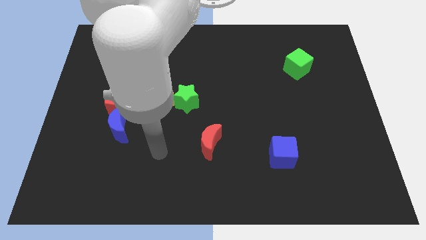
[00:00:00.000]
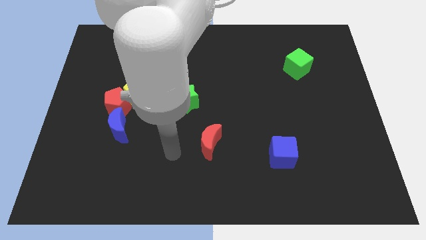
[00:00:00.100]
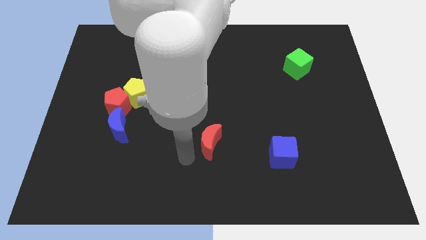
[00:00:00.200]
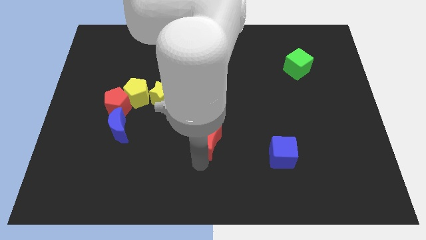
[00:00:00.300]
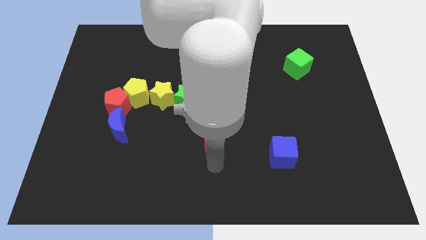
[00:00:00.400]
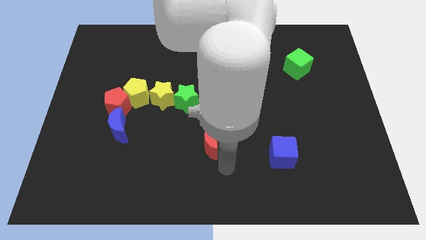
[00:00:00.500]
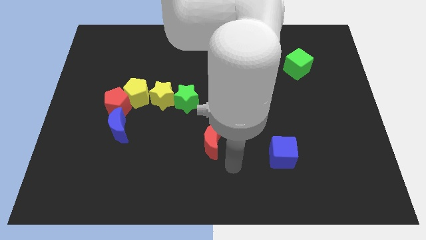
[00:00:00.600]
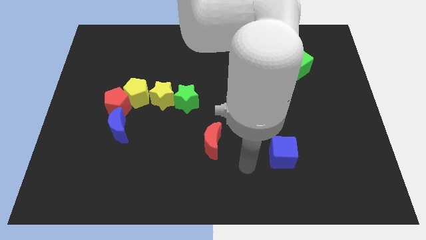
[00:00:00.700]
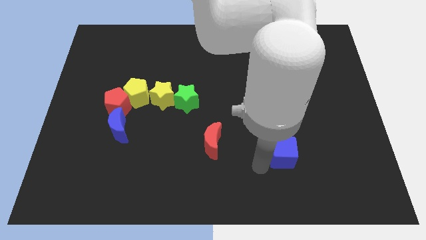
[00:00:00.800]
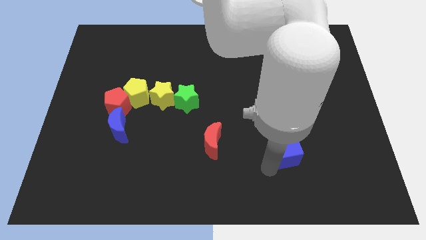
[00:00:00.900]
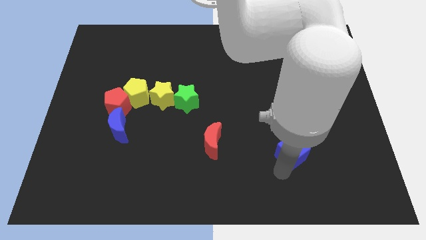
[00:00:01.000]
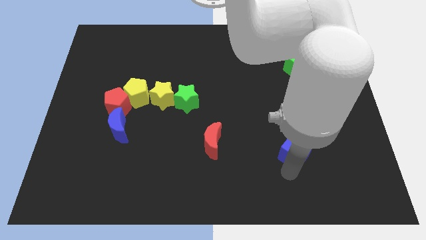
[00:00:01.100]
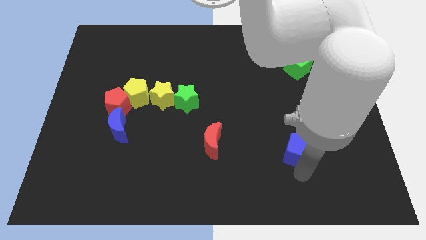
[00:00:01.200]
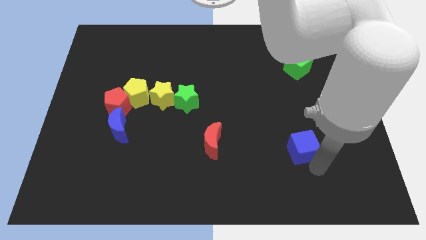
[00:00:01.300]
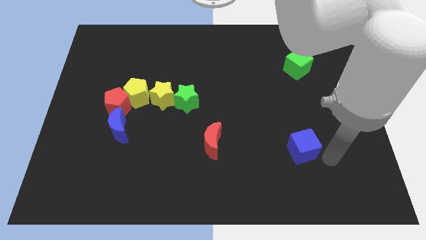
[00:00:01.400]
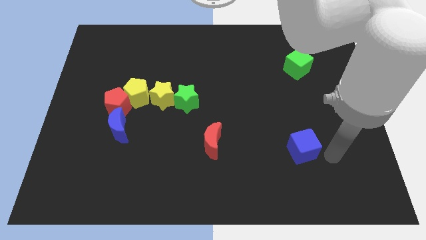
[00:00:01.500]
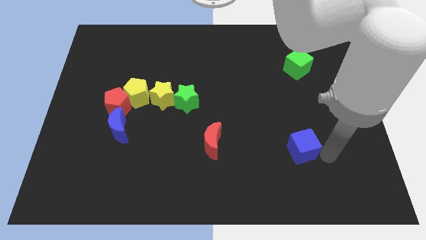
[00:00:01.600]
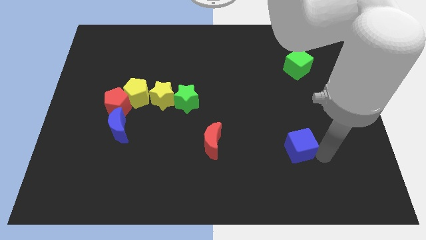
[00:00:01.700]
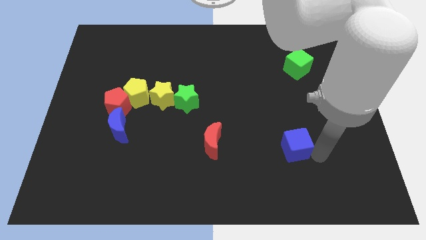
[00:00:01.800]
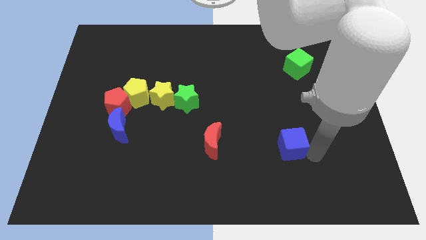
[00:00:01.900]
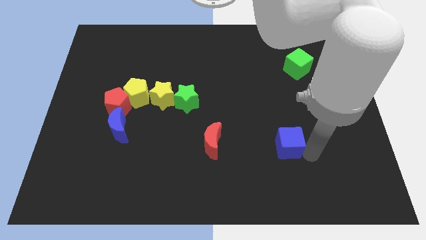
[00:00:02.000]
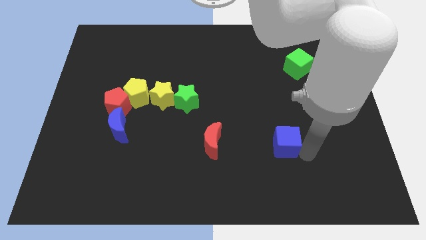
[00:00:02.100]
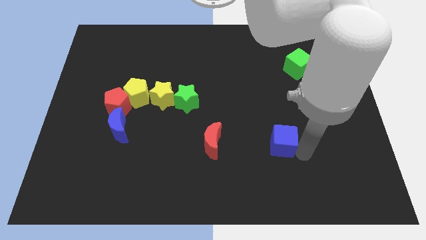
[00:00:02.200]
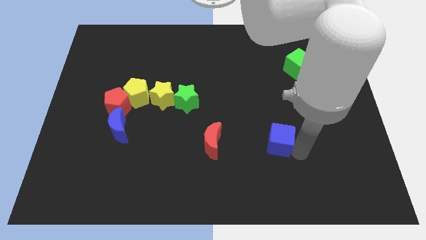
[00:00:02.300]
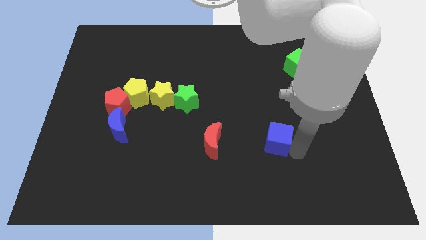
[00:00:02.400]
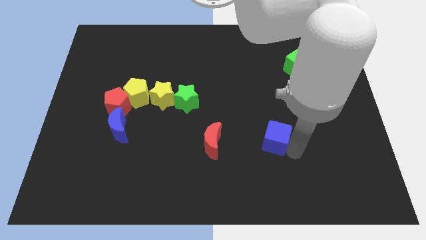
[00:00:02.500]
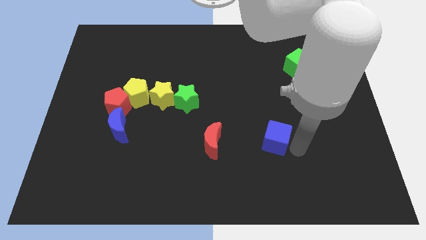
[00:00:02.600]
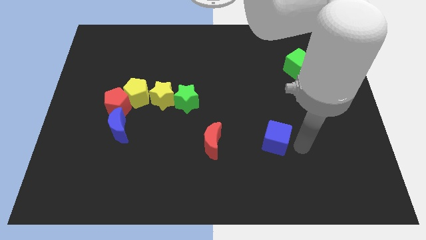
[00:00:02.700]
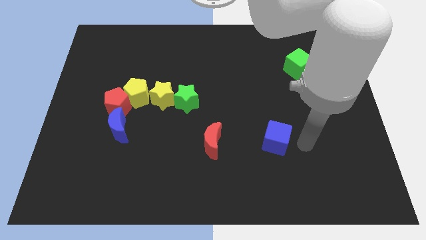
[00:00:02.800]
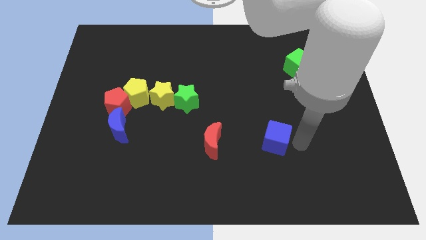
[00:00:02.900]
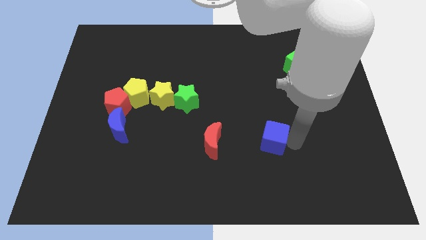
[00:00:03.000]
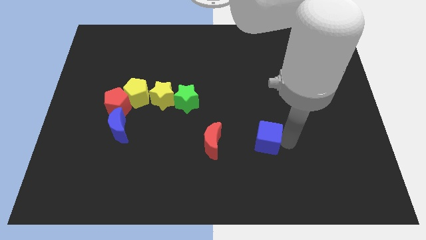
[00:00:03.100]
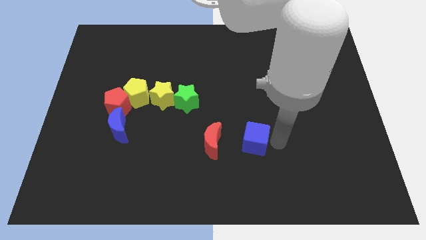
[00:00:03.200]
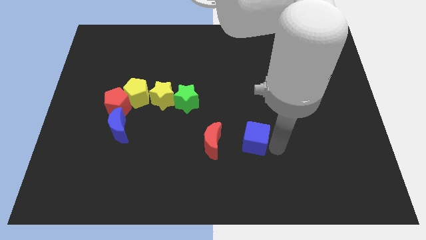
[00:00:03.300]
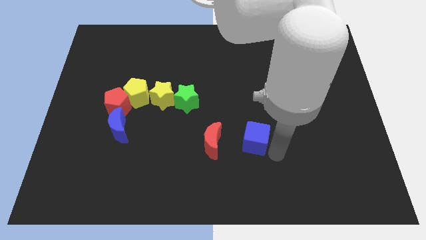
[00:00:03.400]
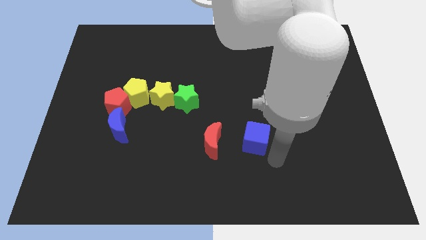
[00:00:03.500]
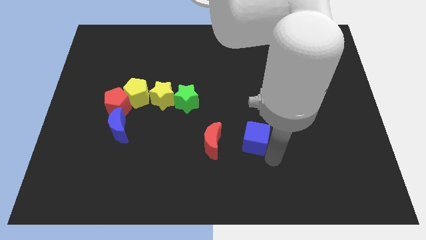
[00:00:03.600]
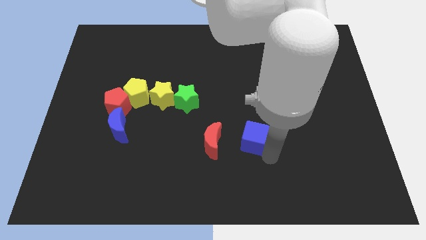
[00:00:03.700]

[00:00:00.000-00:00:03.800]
push the blue cube diagonally up and left a little

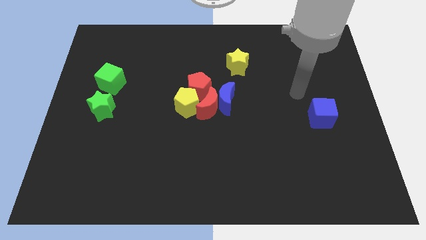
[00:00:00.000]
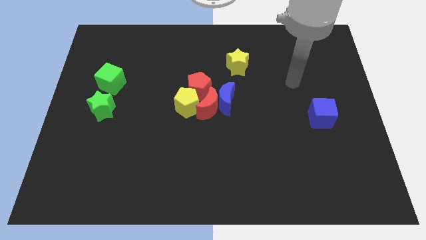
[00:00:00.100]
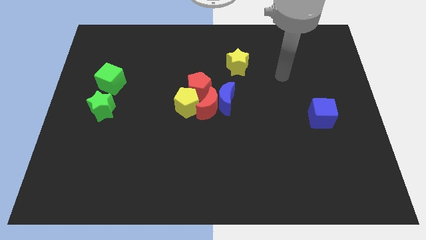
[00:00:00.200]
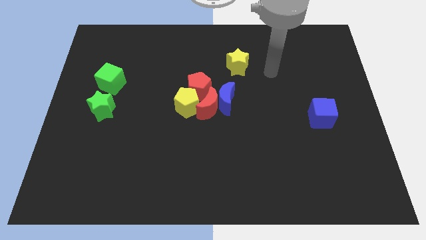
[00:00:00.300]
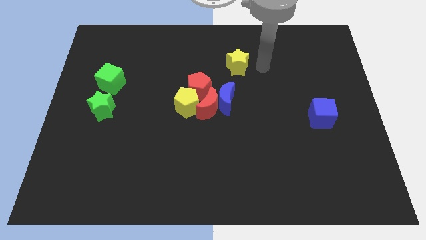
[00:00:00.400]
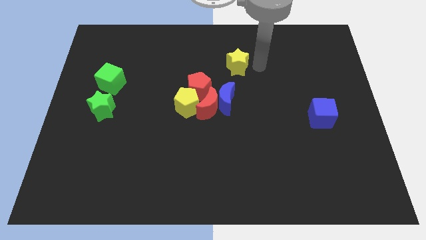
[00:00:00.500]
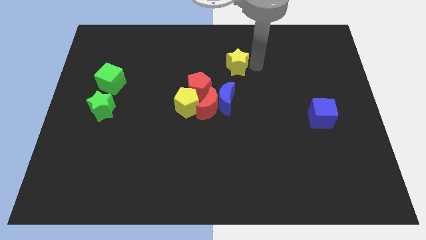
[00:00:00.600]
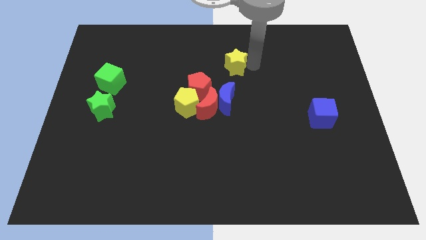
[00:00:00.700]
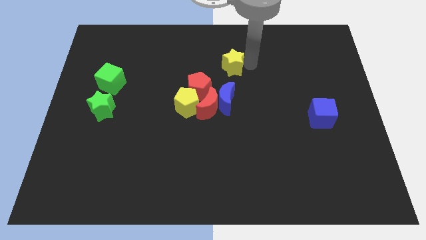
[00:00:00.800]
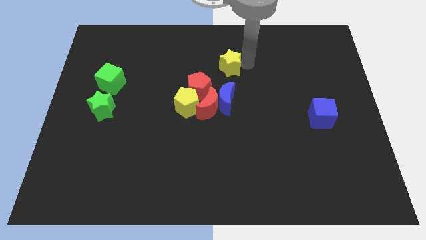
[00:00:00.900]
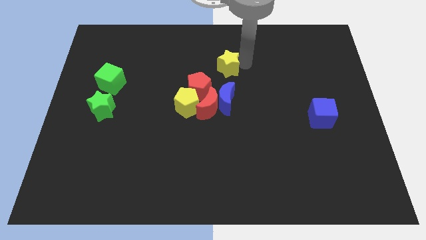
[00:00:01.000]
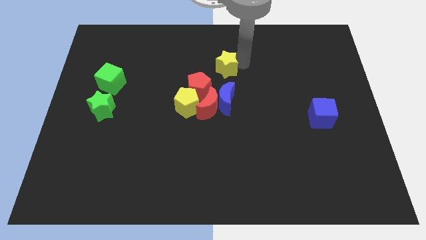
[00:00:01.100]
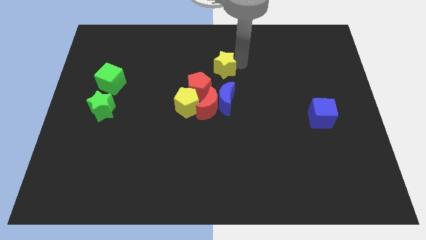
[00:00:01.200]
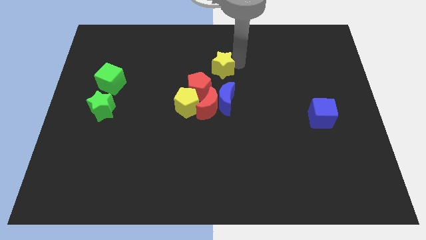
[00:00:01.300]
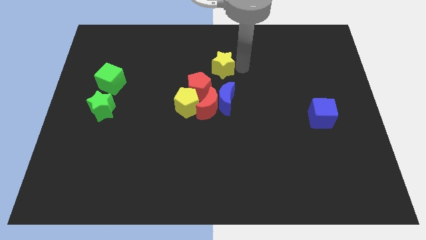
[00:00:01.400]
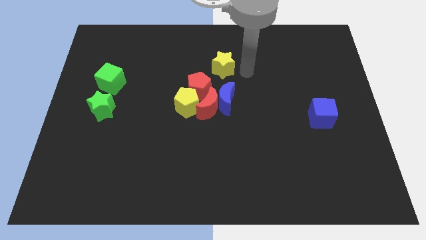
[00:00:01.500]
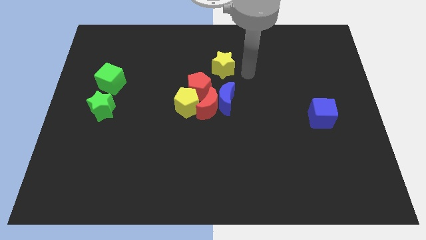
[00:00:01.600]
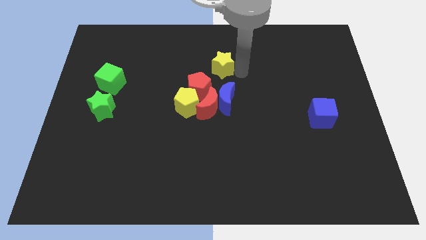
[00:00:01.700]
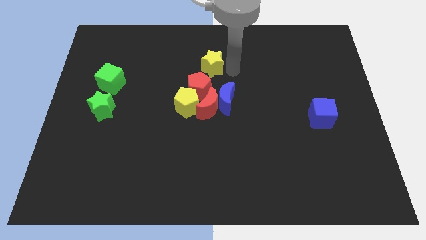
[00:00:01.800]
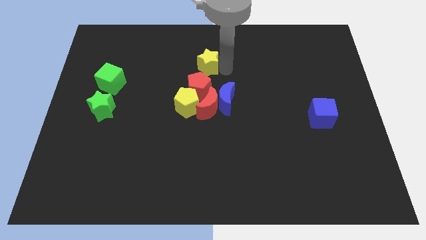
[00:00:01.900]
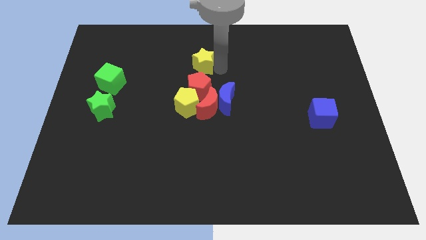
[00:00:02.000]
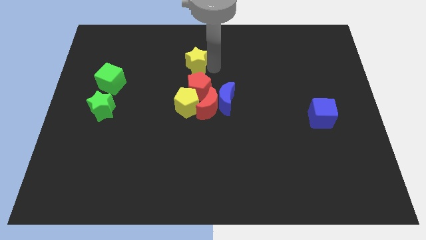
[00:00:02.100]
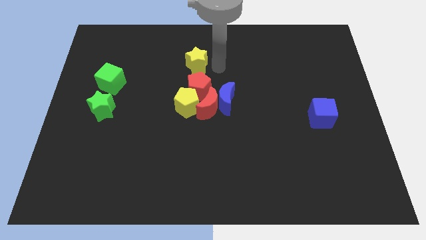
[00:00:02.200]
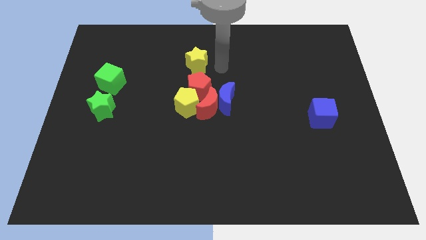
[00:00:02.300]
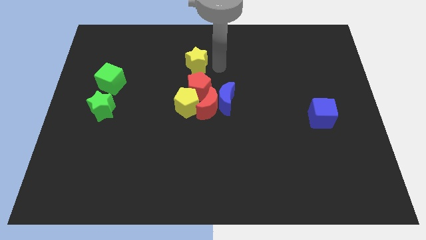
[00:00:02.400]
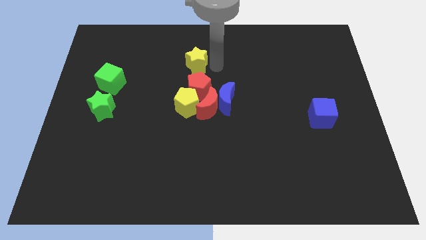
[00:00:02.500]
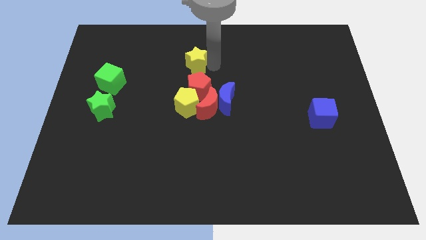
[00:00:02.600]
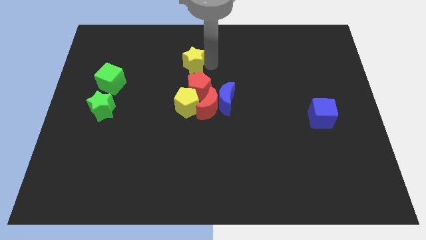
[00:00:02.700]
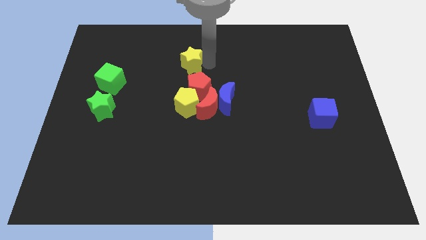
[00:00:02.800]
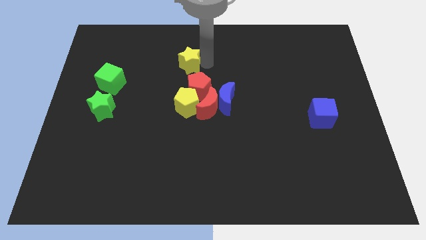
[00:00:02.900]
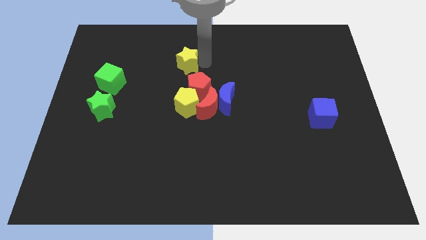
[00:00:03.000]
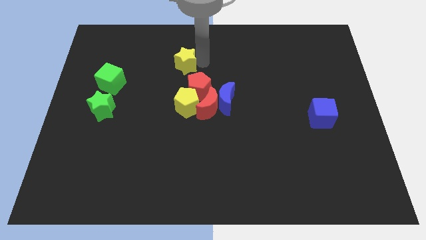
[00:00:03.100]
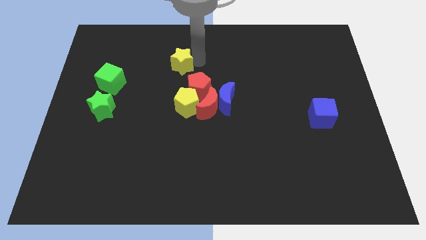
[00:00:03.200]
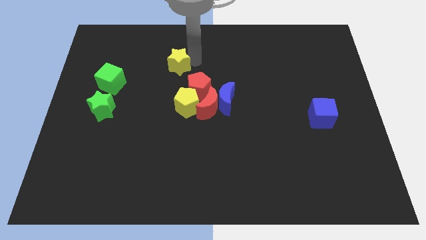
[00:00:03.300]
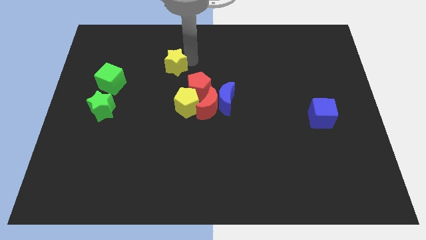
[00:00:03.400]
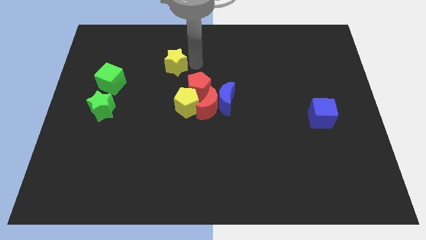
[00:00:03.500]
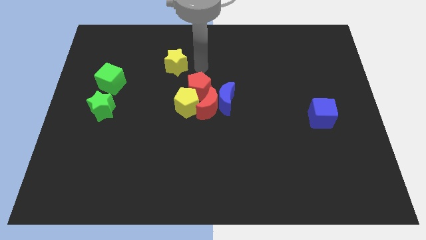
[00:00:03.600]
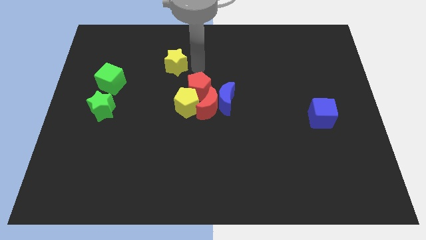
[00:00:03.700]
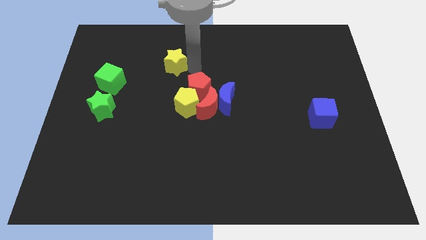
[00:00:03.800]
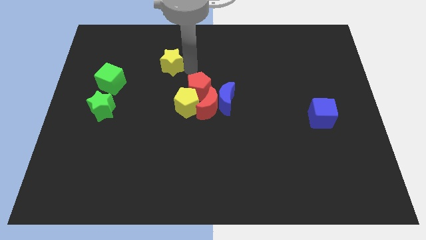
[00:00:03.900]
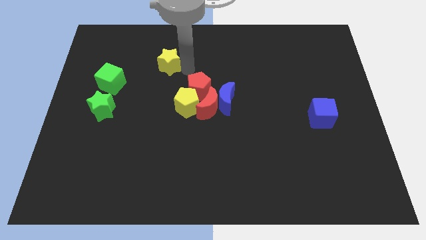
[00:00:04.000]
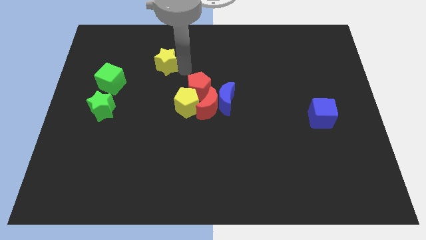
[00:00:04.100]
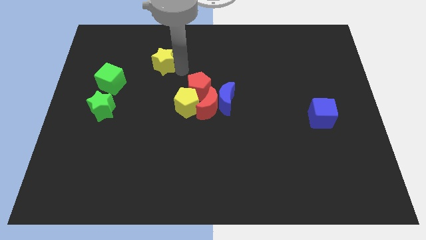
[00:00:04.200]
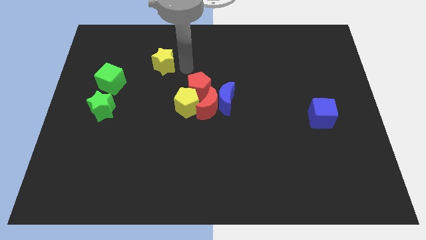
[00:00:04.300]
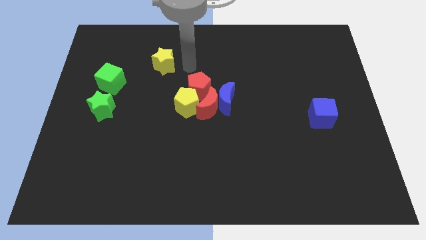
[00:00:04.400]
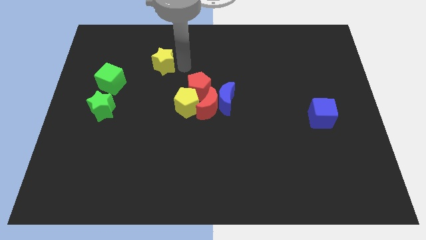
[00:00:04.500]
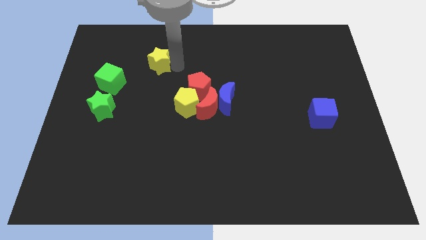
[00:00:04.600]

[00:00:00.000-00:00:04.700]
push the yellow star to the left
